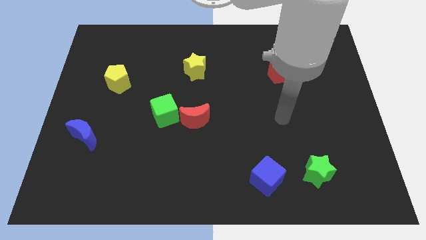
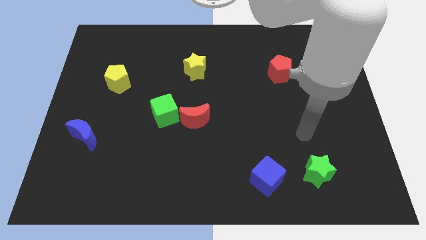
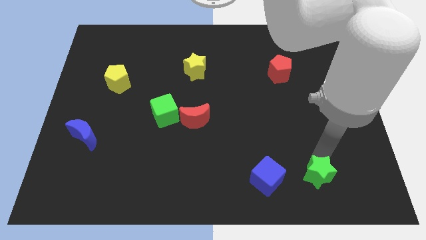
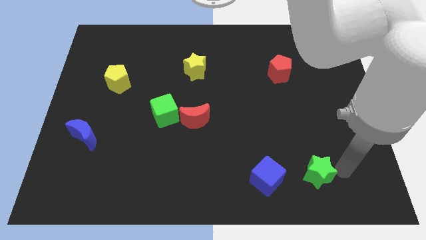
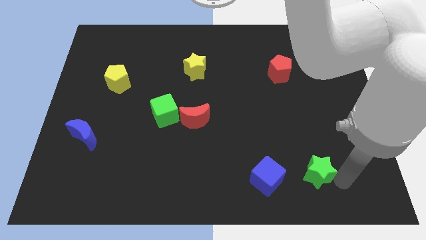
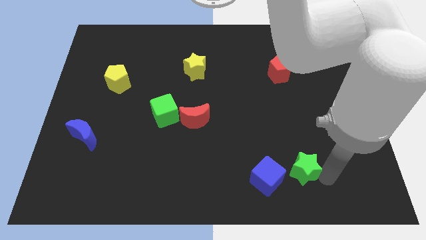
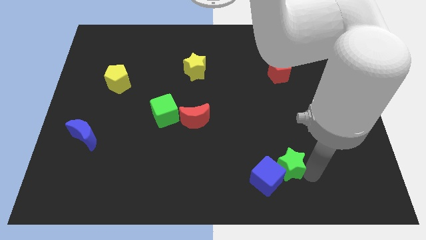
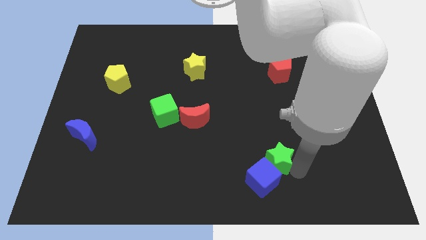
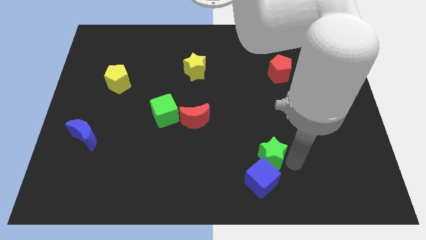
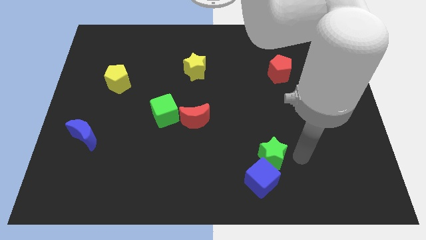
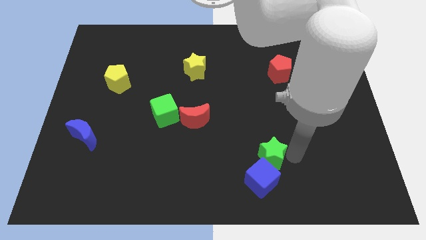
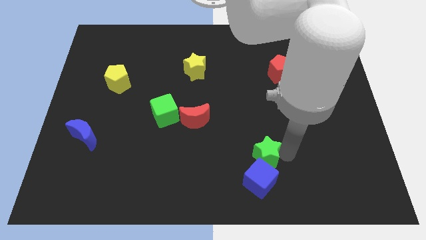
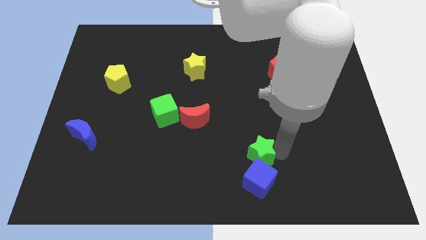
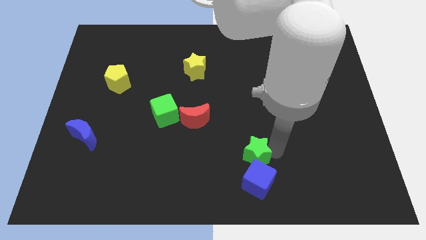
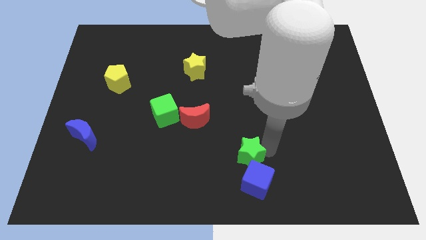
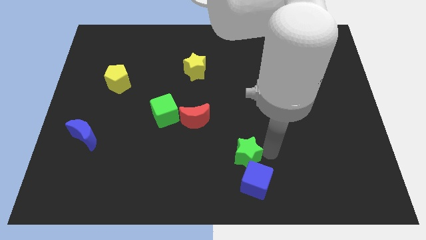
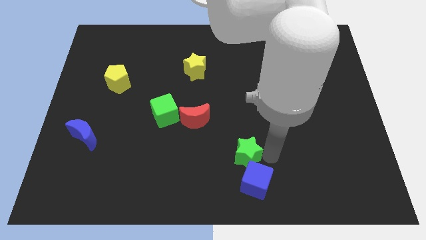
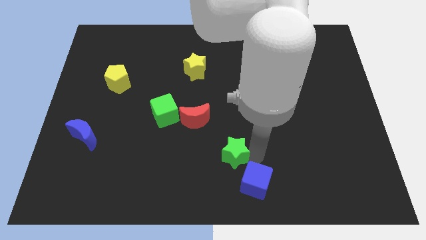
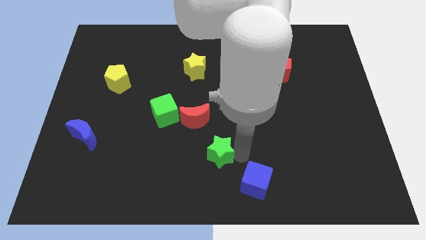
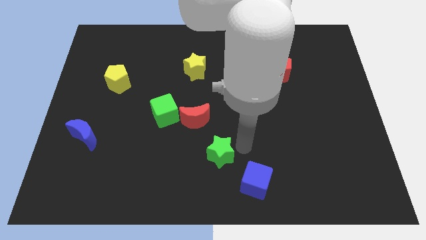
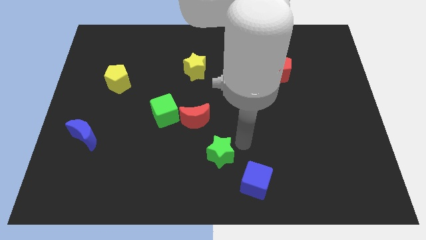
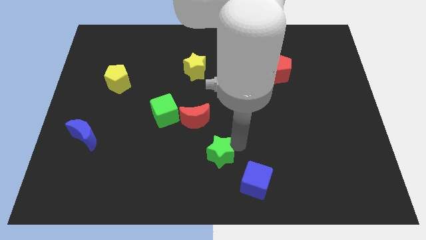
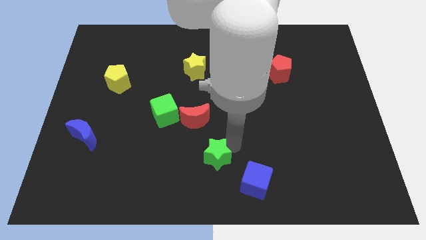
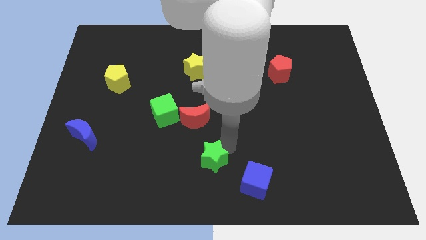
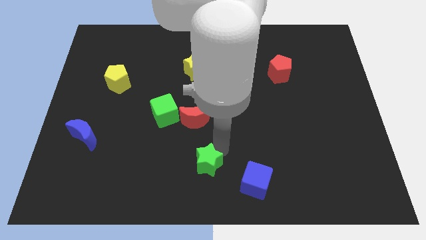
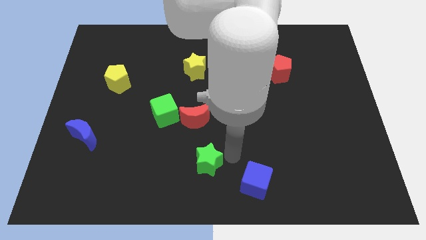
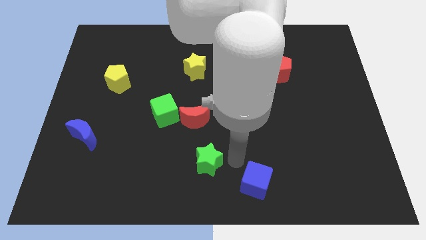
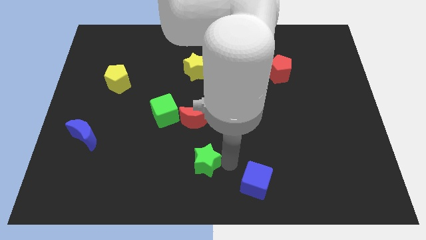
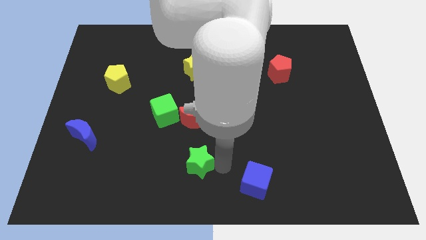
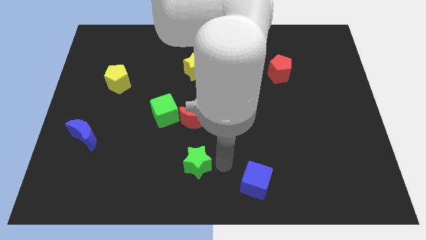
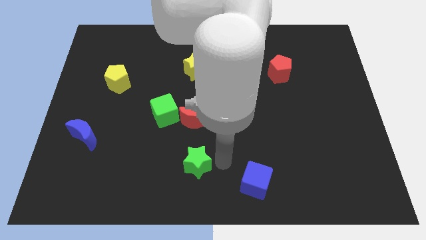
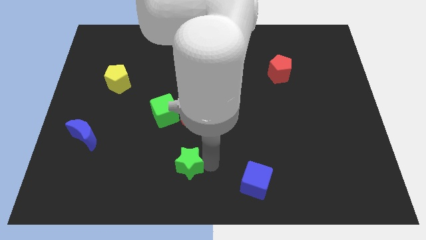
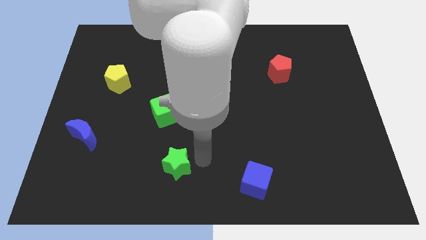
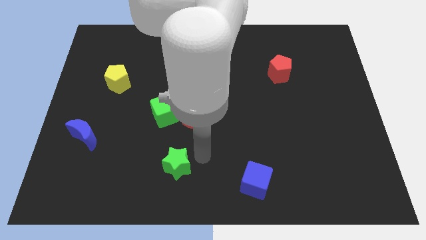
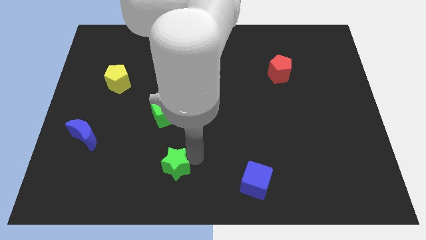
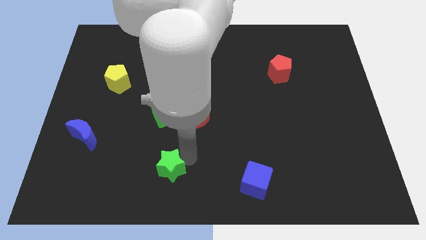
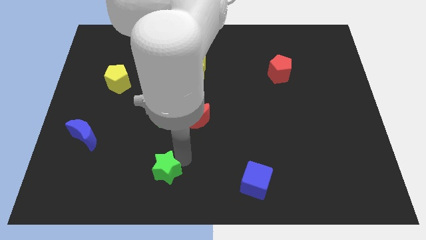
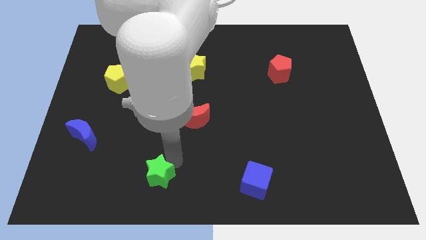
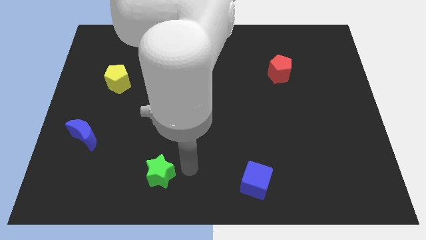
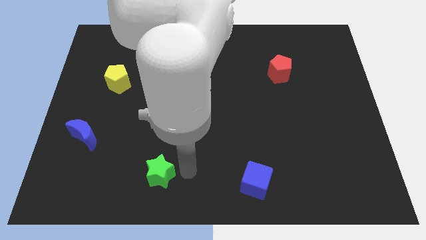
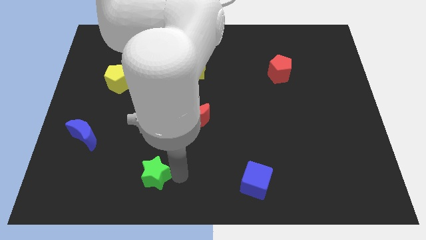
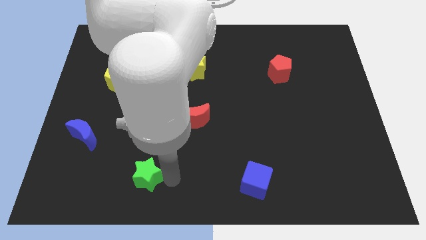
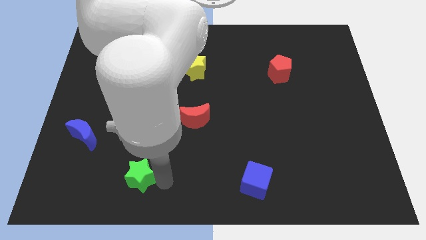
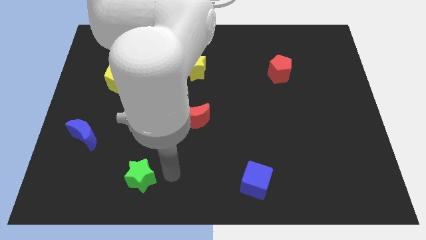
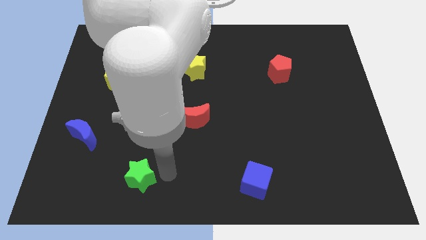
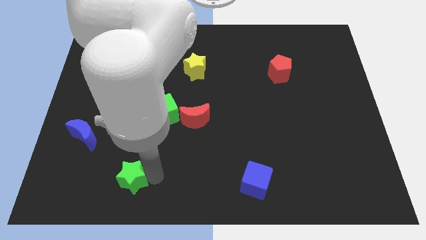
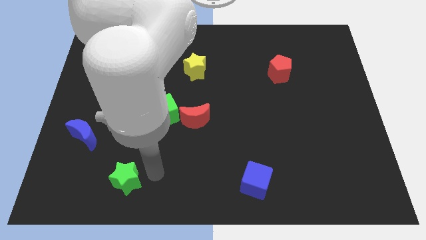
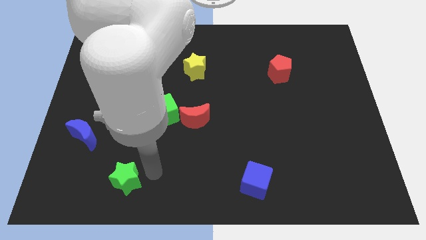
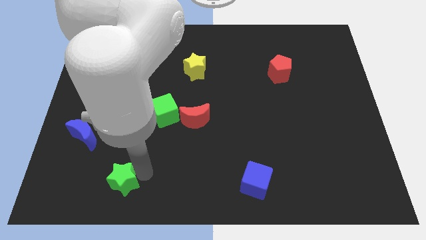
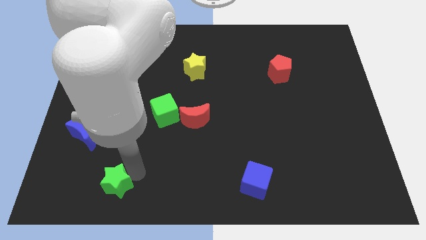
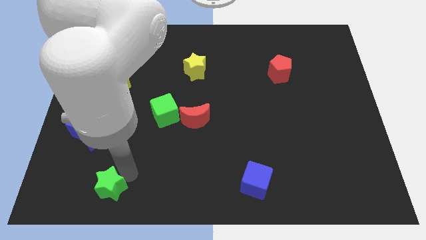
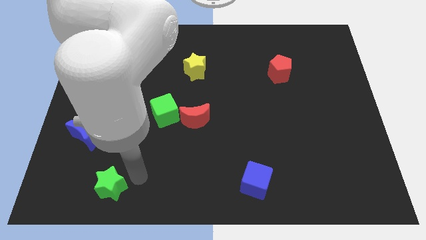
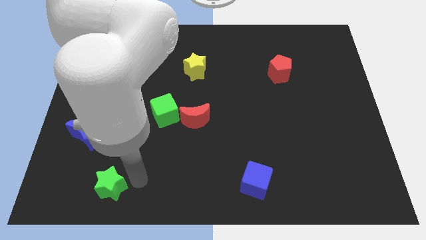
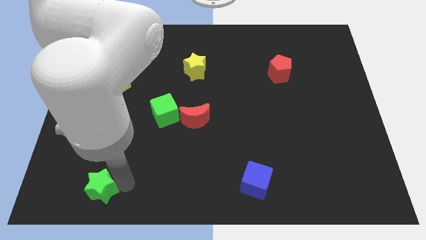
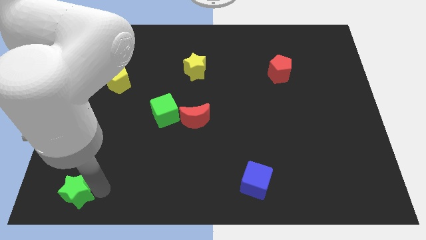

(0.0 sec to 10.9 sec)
slide the green star to the bottom left of the board
